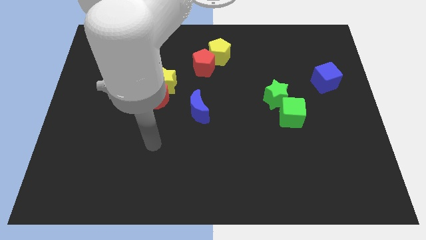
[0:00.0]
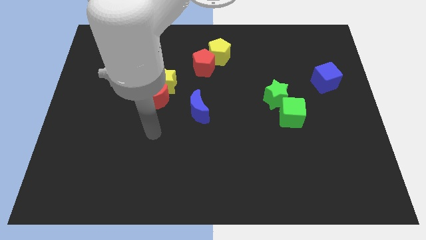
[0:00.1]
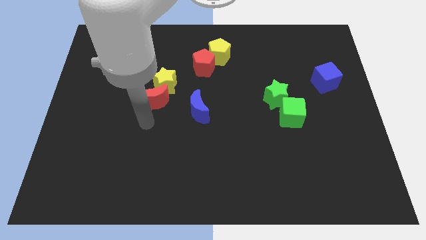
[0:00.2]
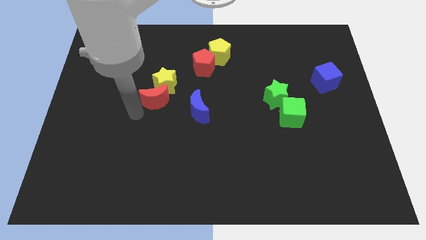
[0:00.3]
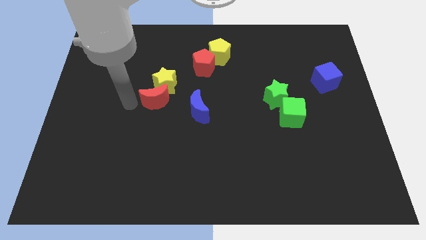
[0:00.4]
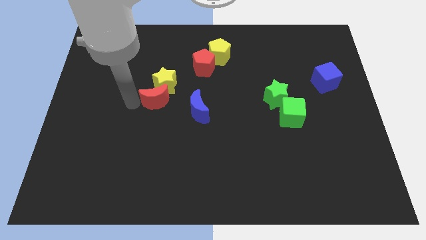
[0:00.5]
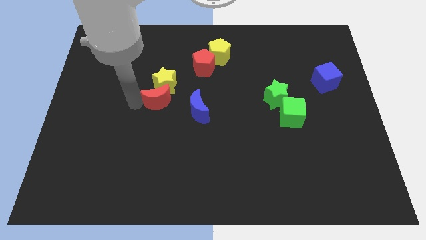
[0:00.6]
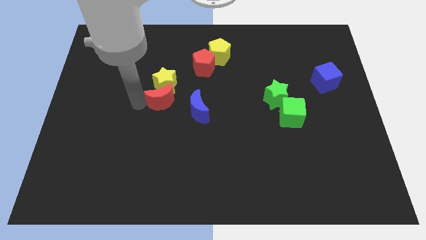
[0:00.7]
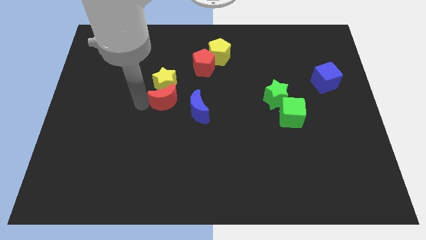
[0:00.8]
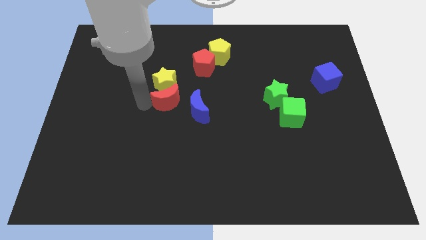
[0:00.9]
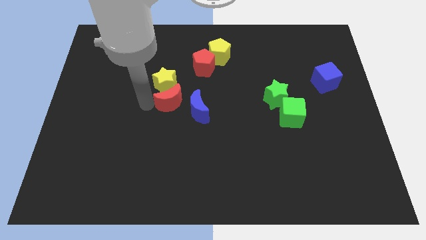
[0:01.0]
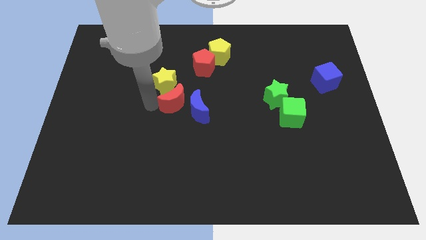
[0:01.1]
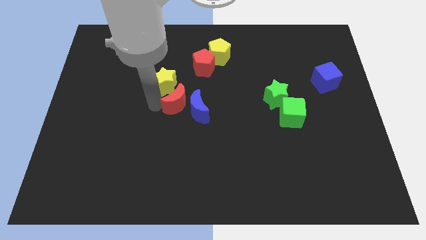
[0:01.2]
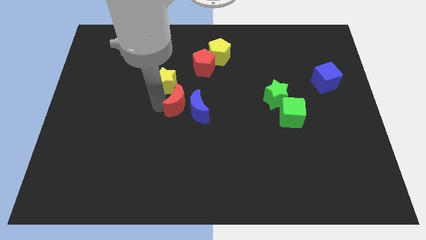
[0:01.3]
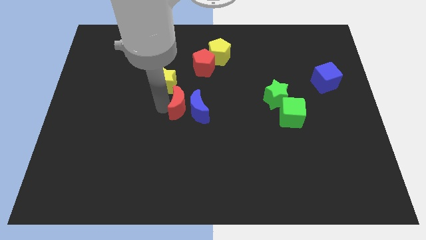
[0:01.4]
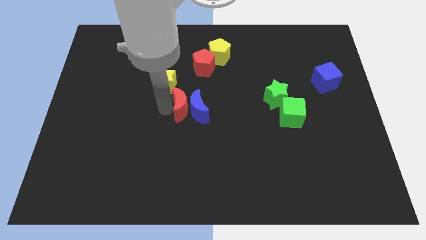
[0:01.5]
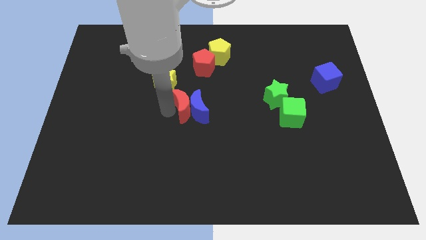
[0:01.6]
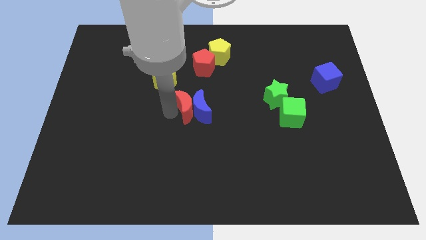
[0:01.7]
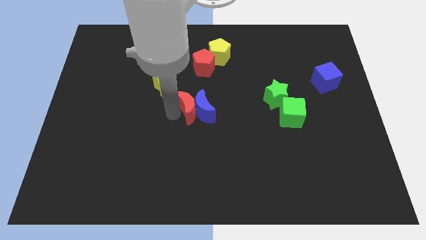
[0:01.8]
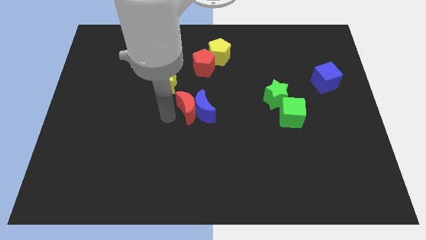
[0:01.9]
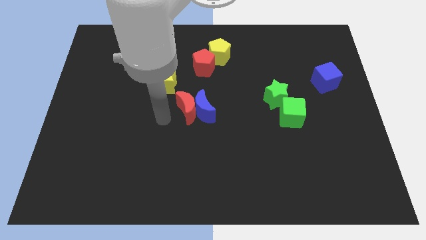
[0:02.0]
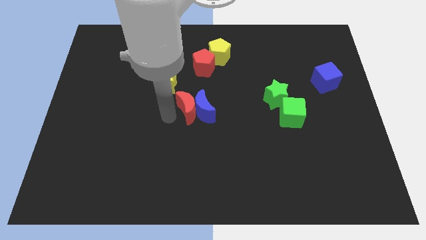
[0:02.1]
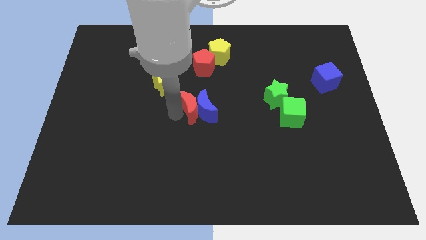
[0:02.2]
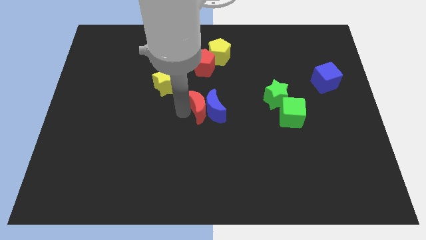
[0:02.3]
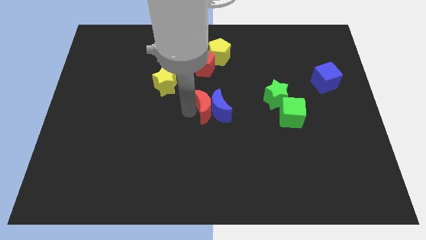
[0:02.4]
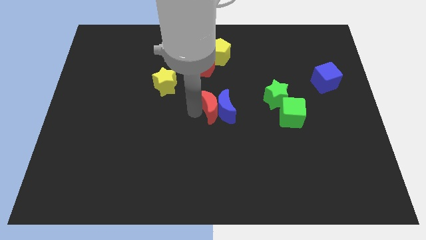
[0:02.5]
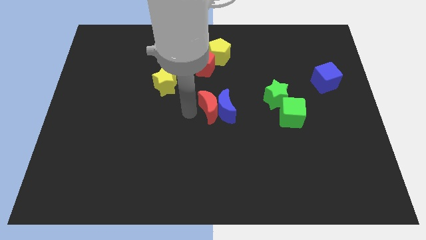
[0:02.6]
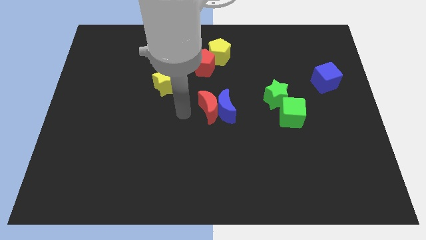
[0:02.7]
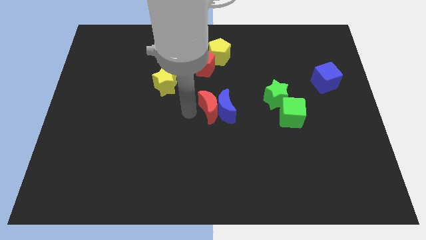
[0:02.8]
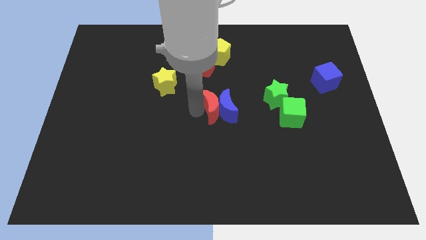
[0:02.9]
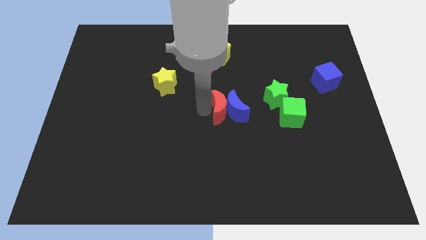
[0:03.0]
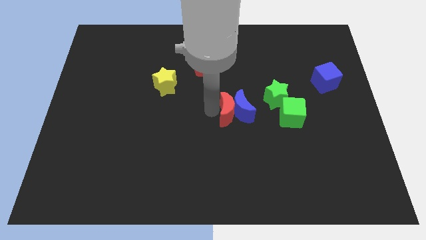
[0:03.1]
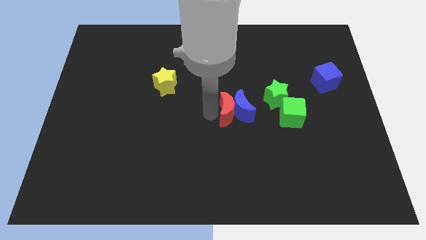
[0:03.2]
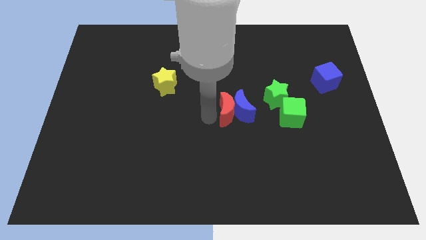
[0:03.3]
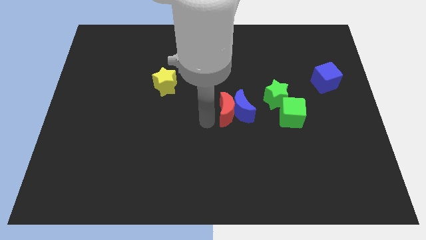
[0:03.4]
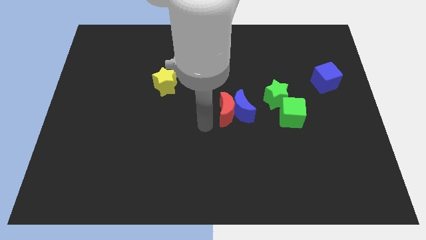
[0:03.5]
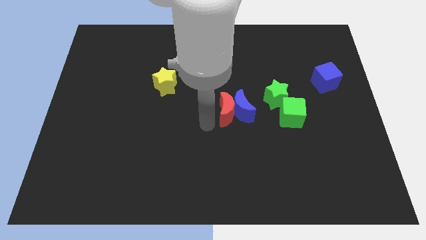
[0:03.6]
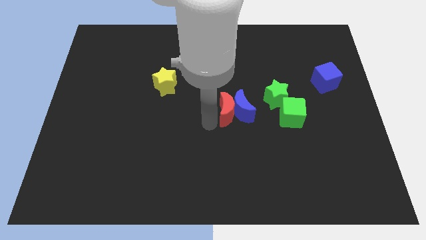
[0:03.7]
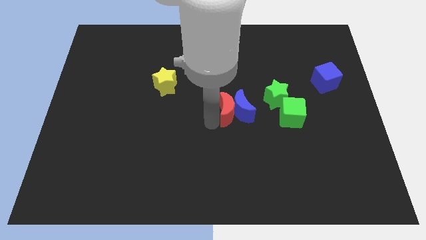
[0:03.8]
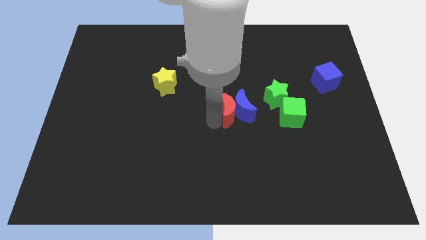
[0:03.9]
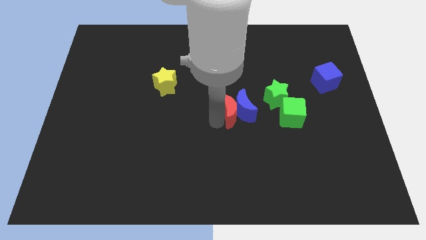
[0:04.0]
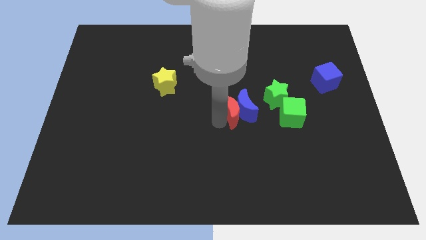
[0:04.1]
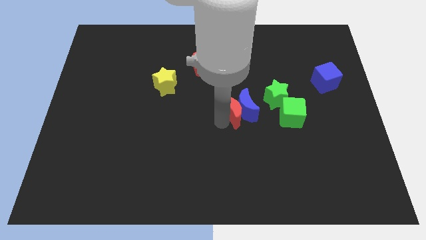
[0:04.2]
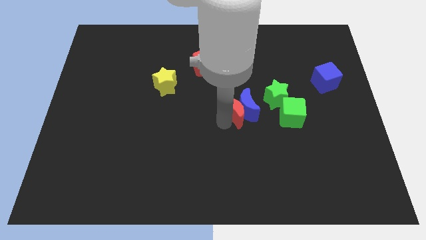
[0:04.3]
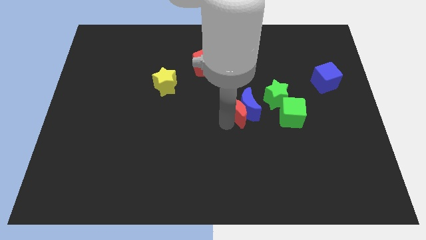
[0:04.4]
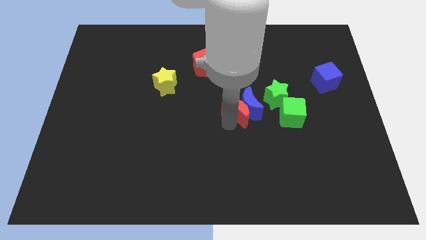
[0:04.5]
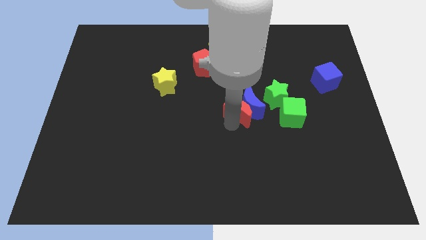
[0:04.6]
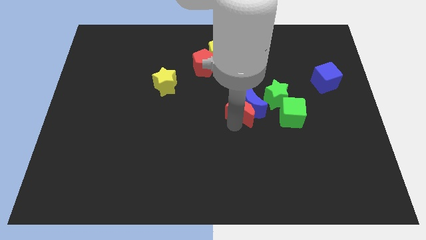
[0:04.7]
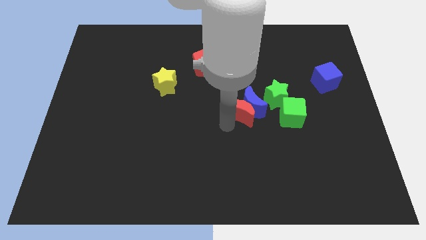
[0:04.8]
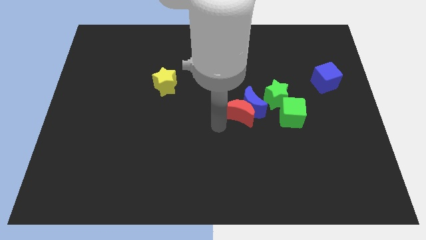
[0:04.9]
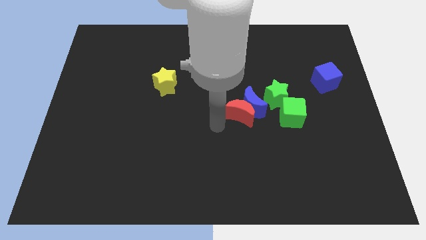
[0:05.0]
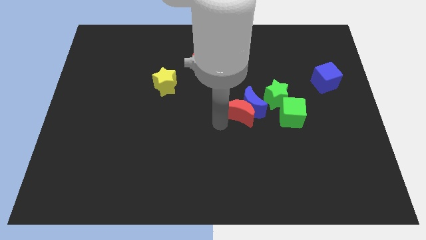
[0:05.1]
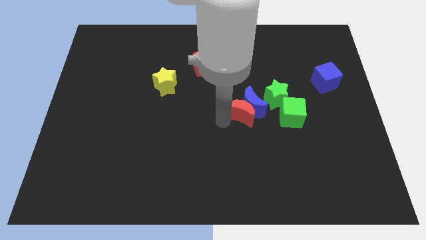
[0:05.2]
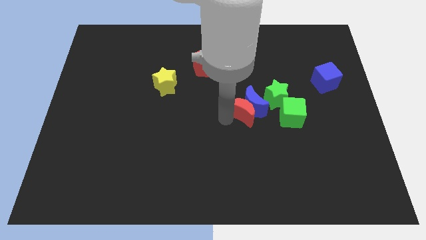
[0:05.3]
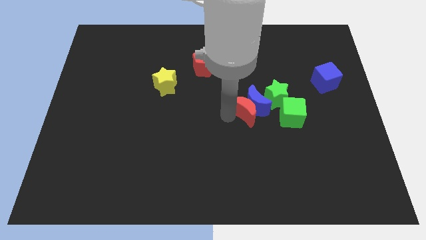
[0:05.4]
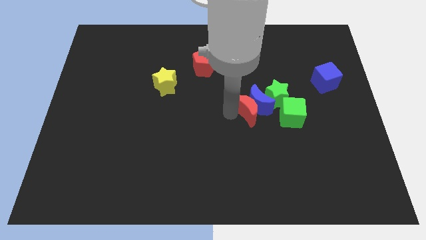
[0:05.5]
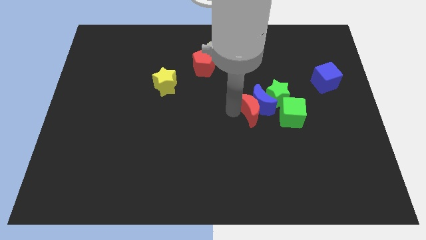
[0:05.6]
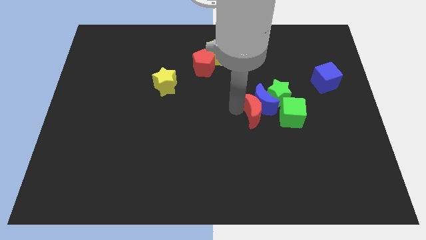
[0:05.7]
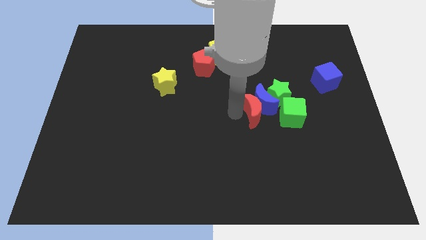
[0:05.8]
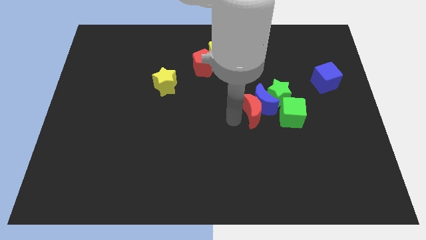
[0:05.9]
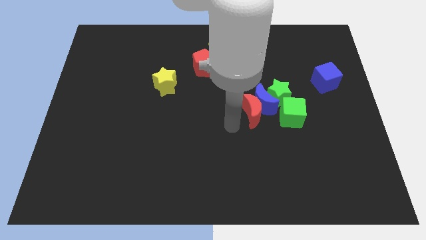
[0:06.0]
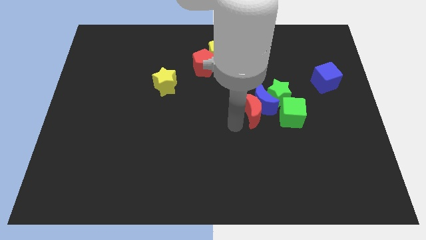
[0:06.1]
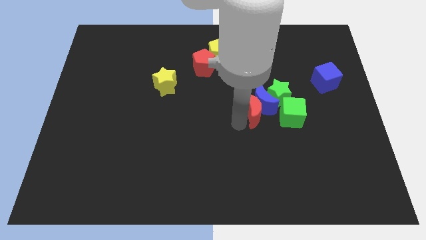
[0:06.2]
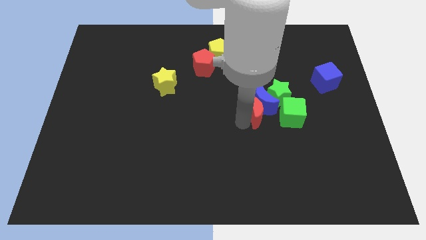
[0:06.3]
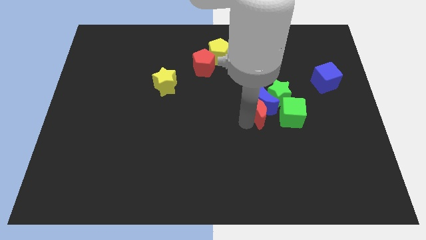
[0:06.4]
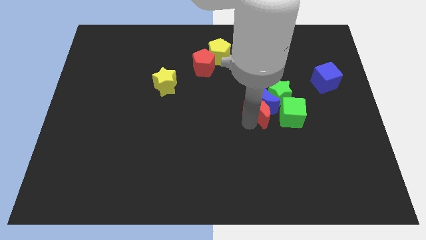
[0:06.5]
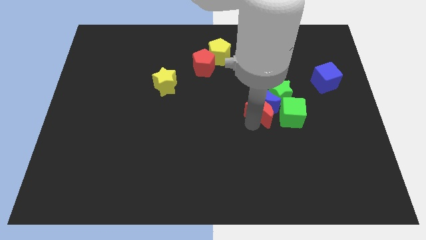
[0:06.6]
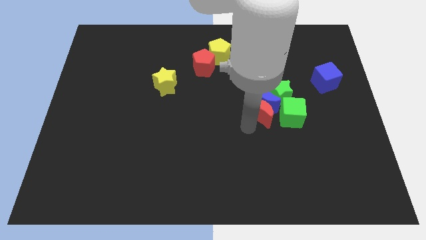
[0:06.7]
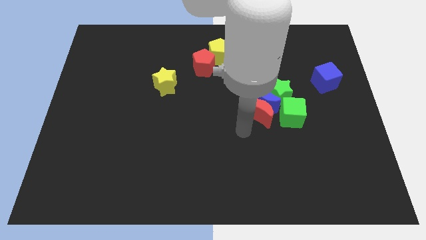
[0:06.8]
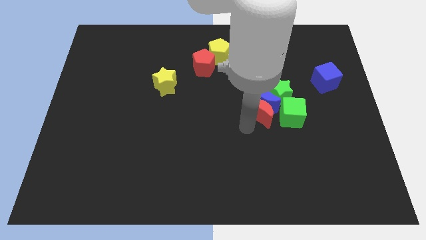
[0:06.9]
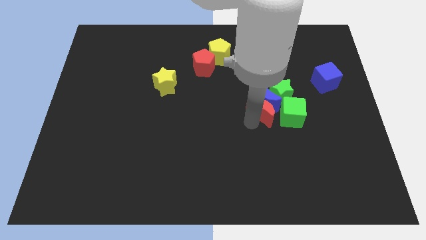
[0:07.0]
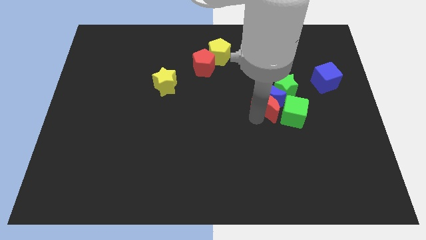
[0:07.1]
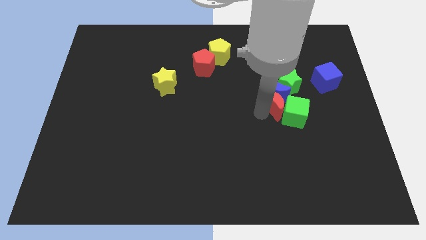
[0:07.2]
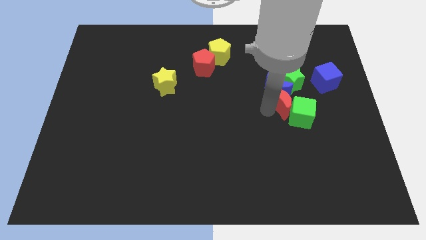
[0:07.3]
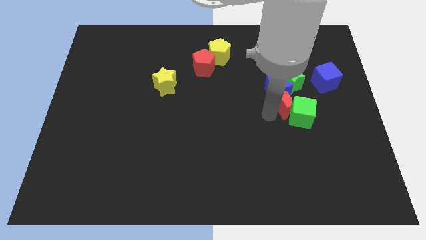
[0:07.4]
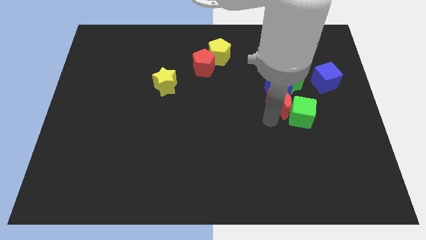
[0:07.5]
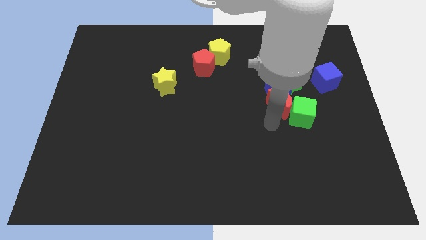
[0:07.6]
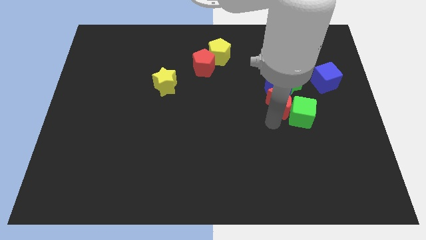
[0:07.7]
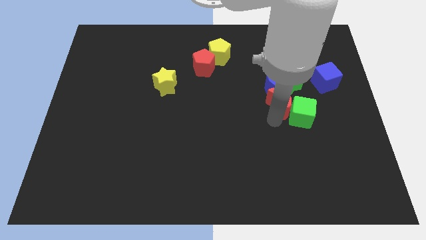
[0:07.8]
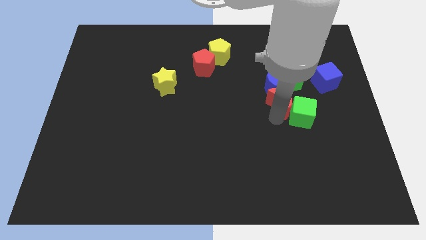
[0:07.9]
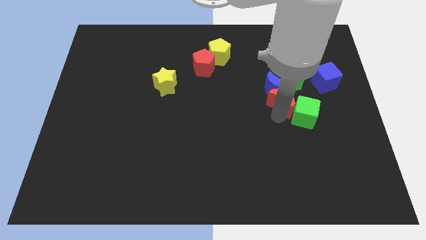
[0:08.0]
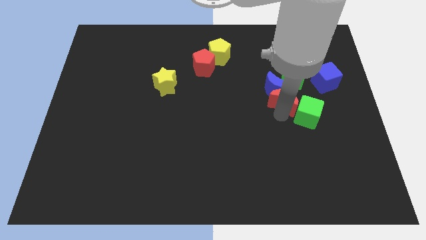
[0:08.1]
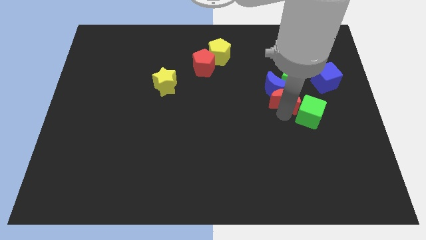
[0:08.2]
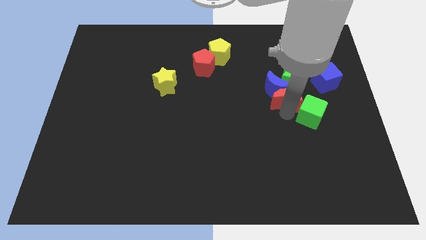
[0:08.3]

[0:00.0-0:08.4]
put the red moon towards the green star
